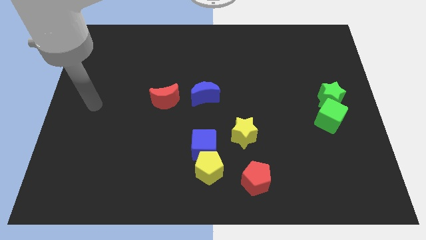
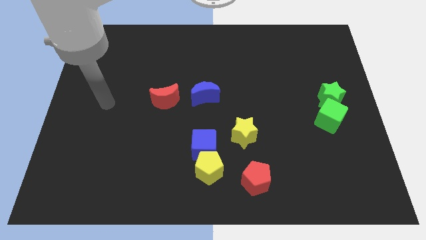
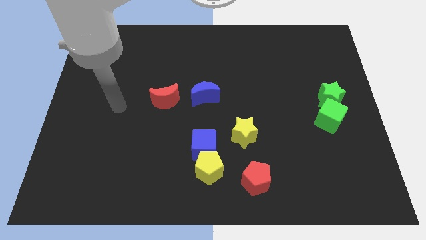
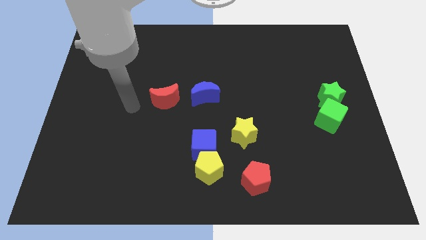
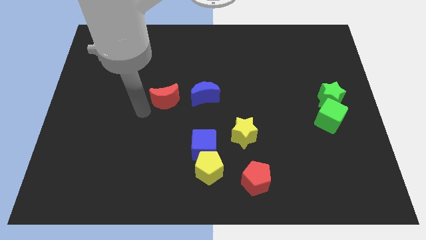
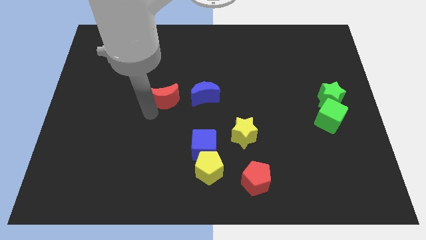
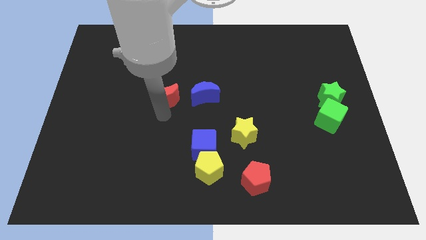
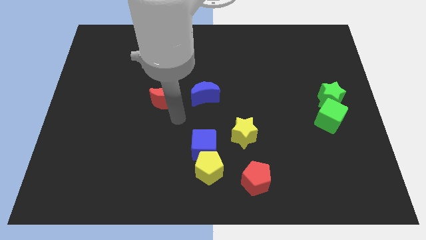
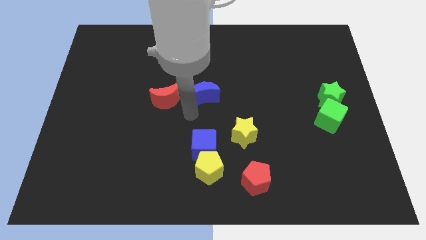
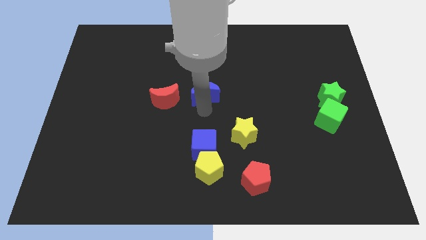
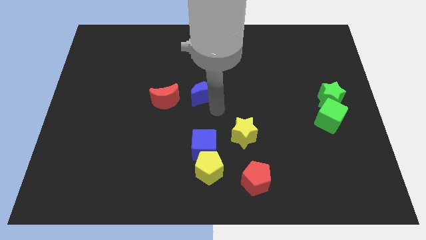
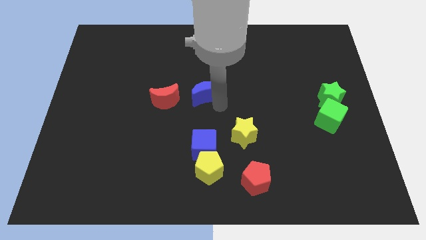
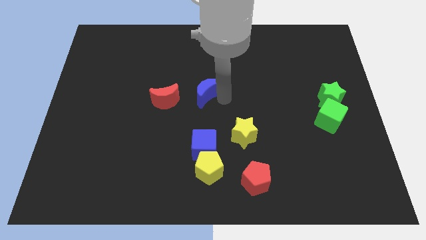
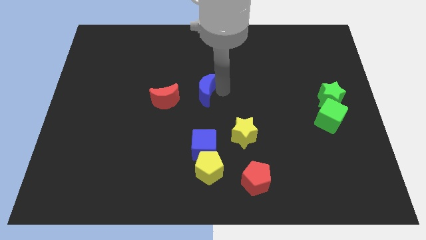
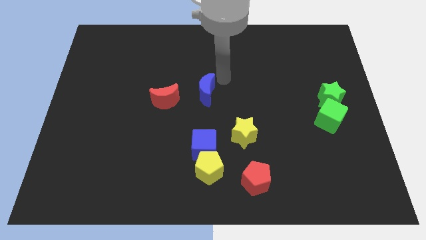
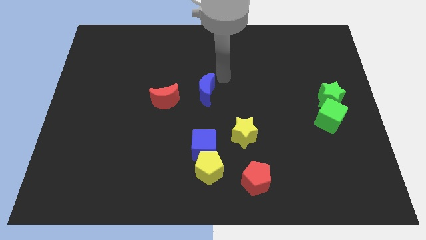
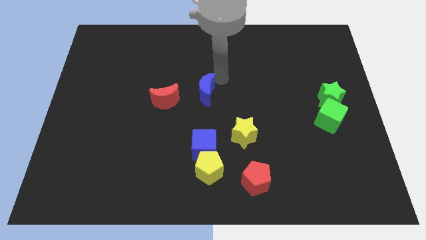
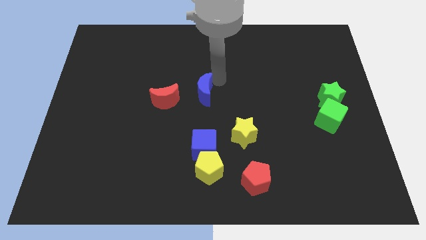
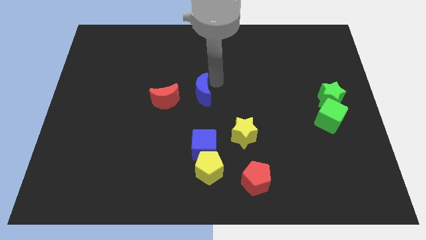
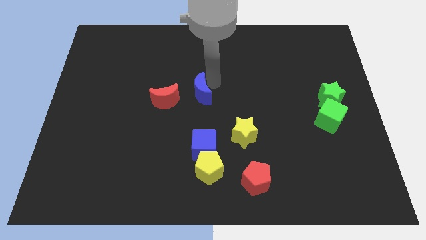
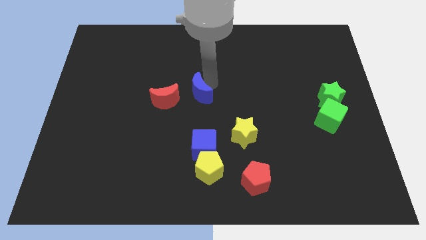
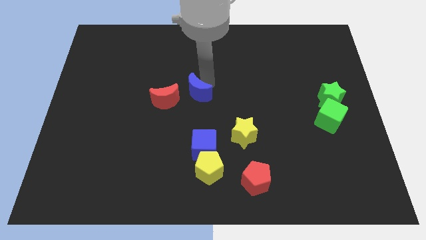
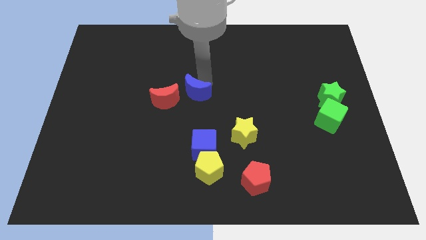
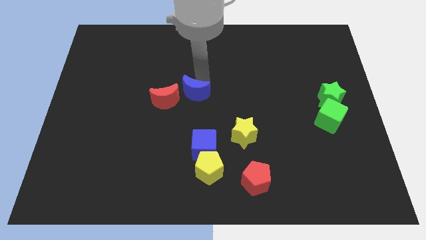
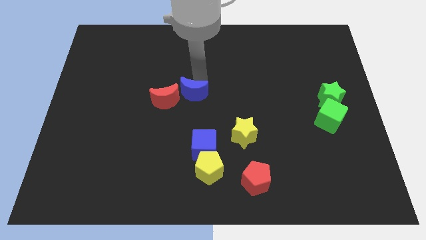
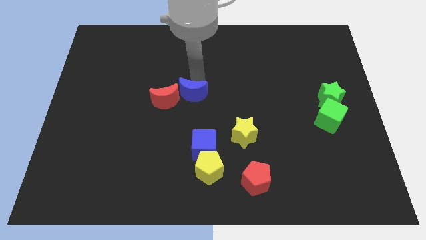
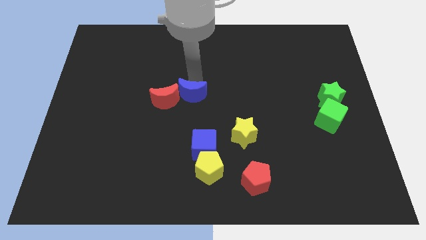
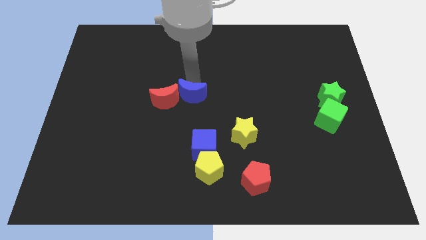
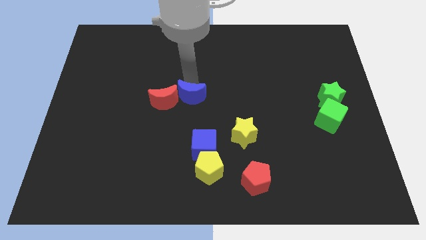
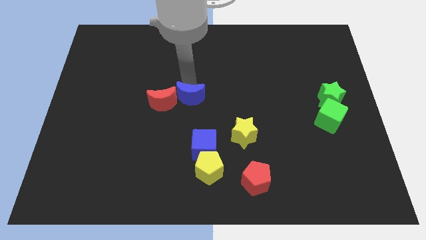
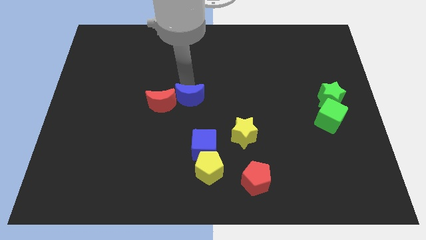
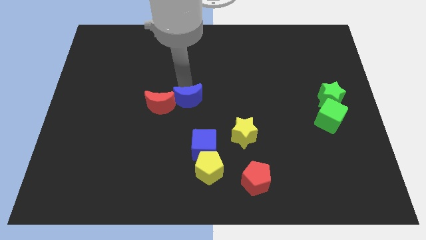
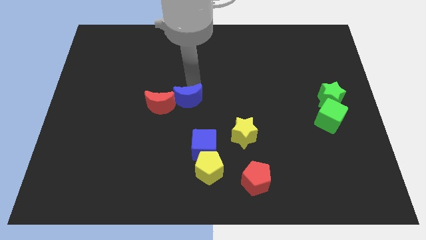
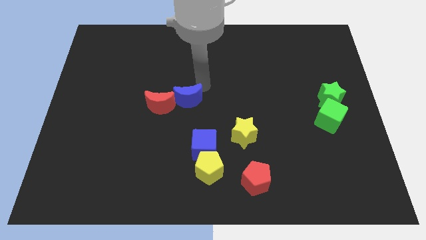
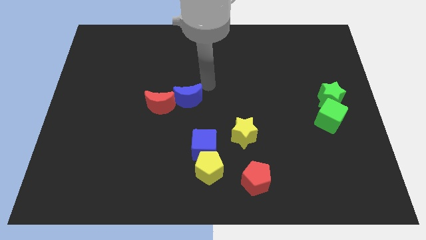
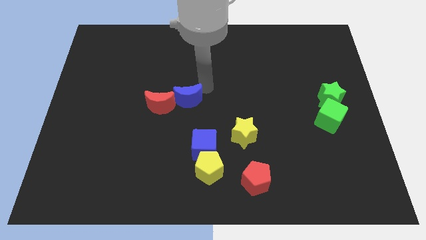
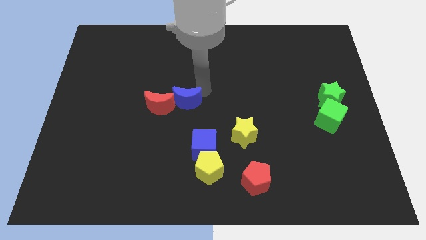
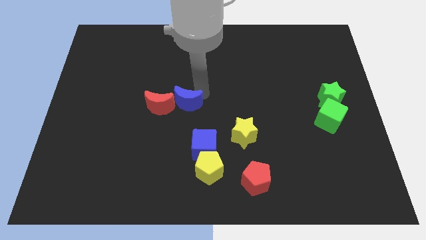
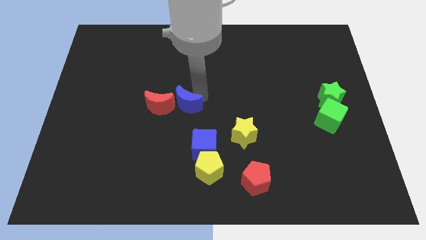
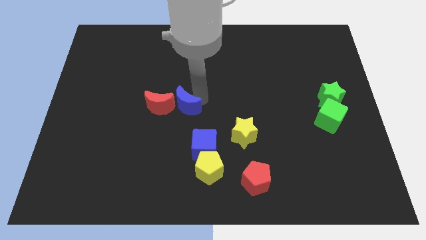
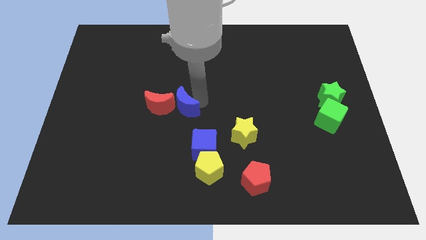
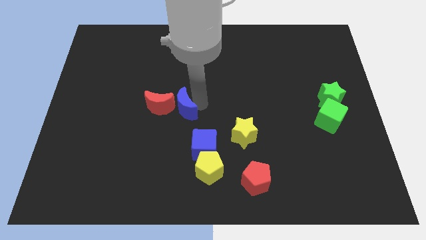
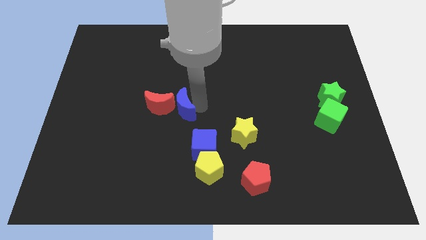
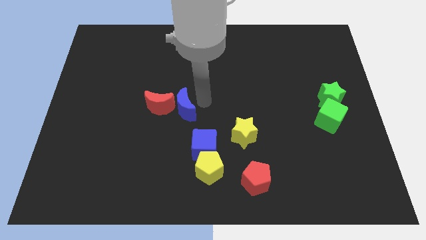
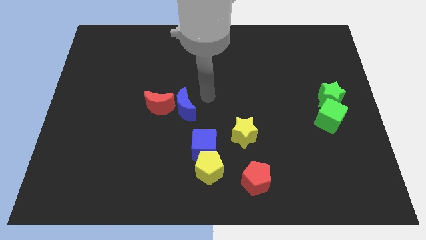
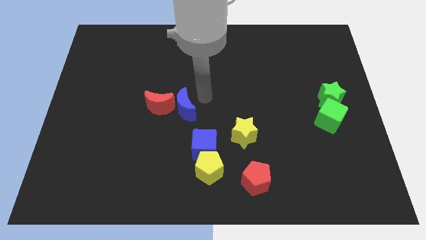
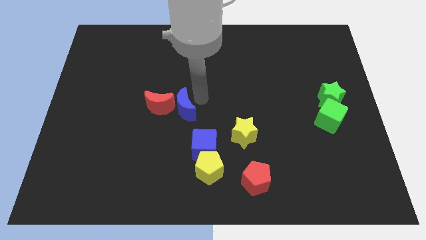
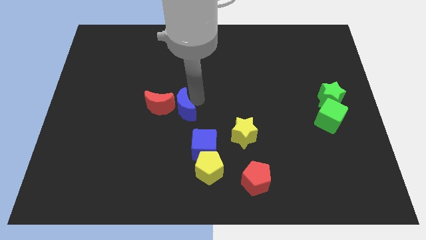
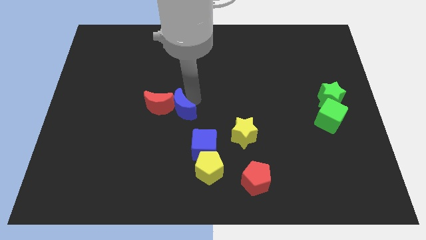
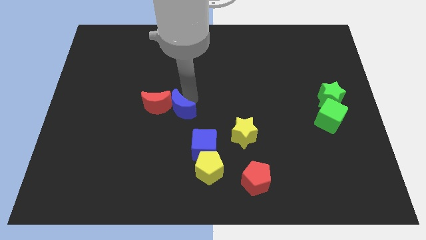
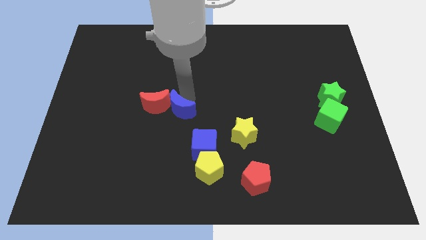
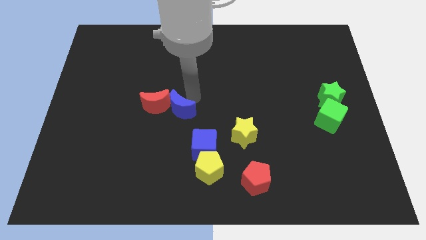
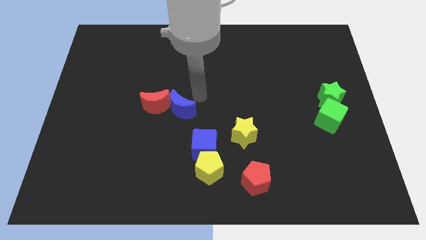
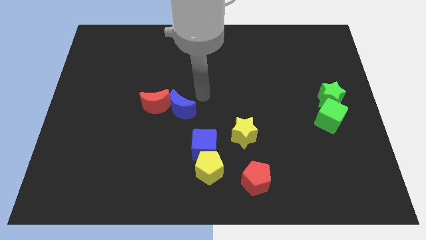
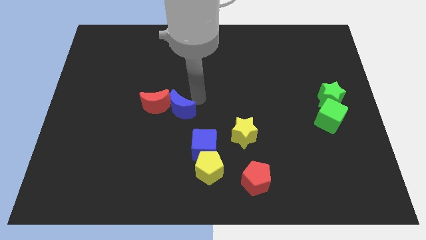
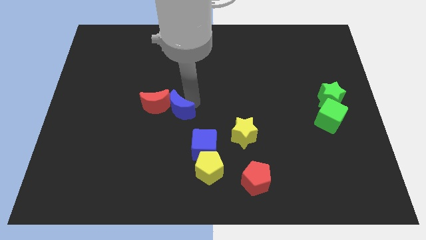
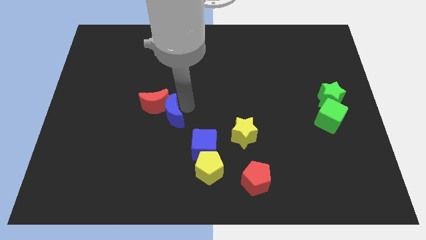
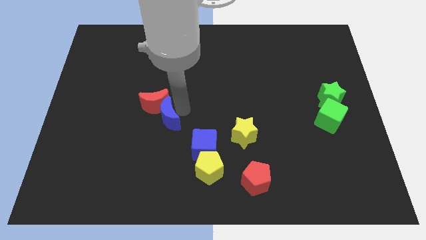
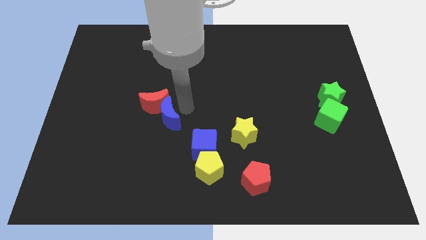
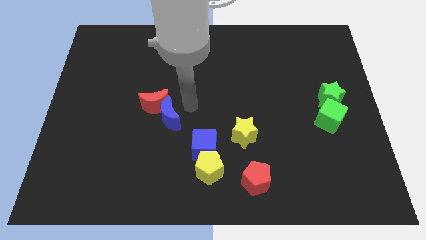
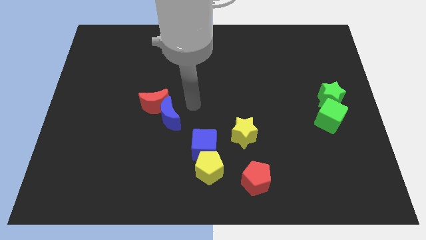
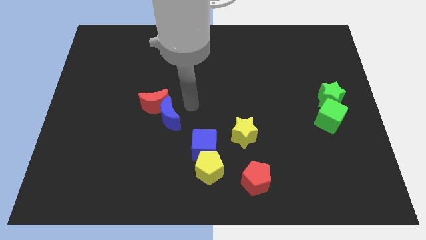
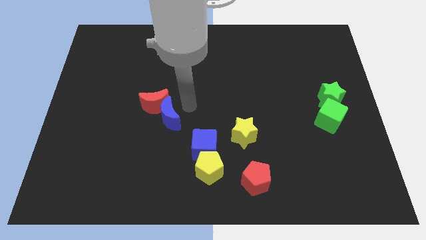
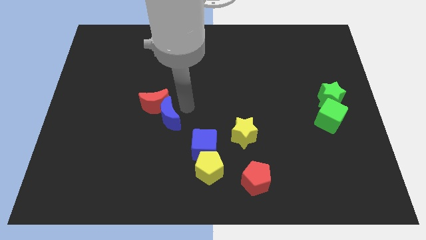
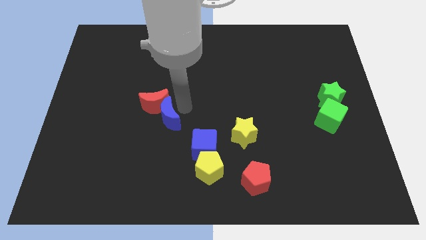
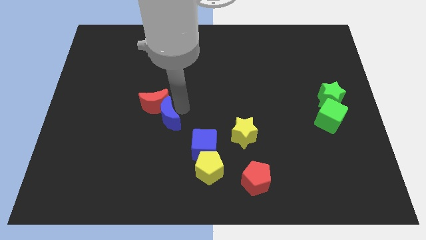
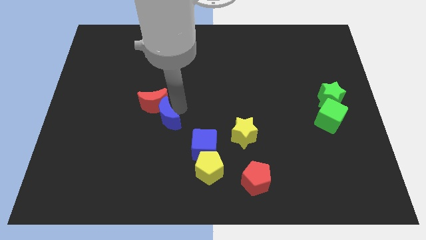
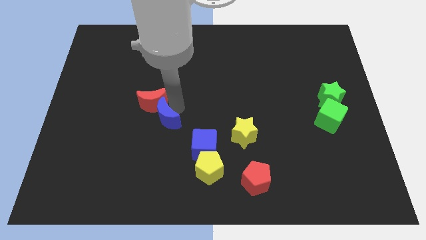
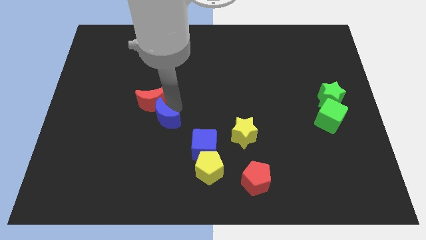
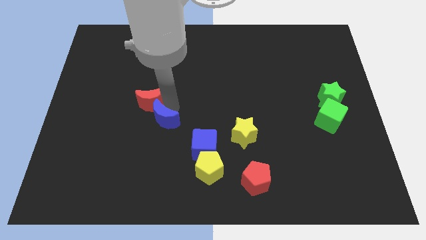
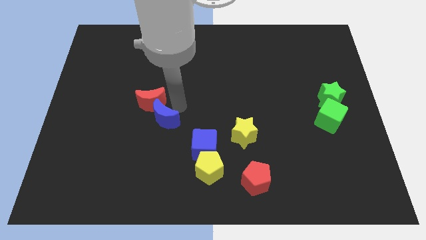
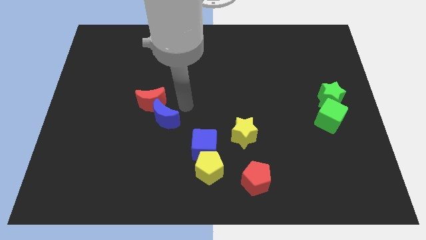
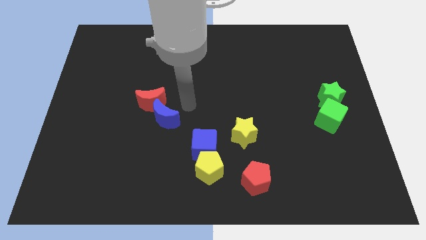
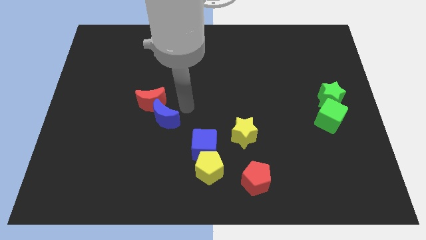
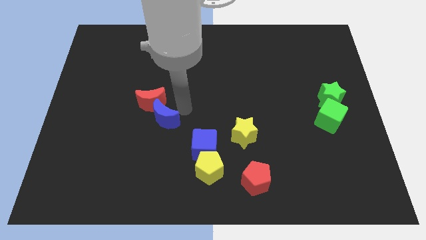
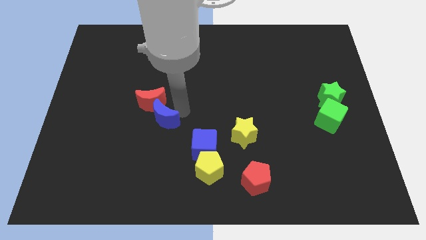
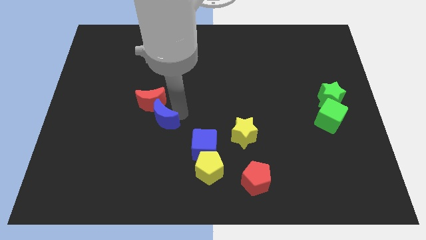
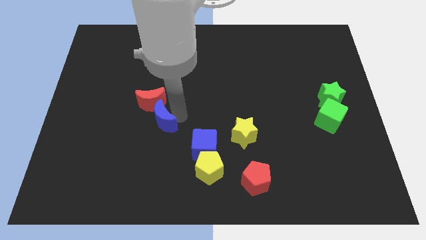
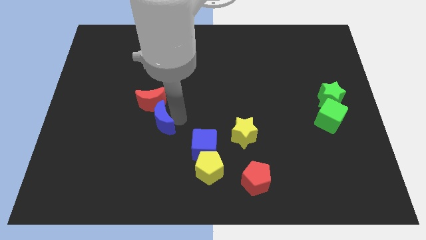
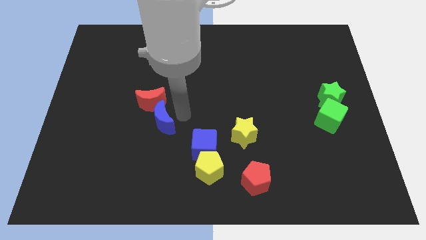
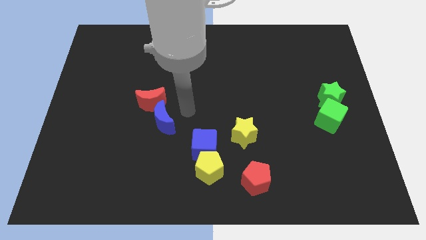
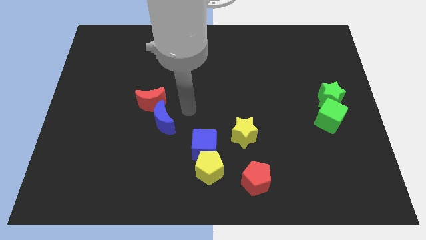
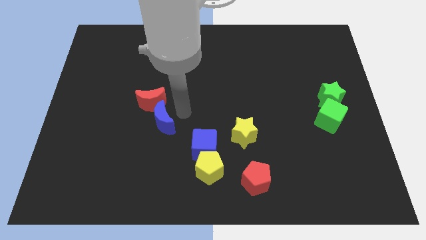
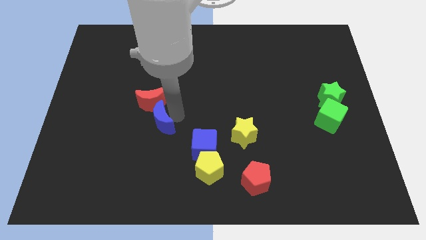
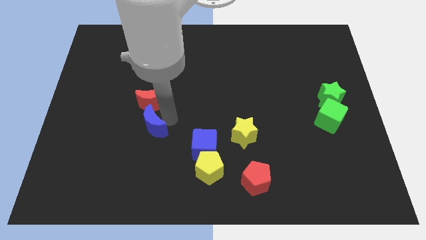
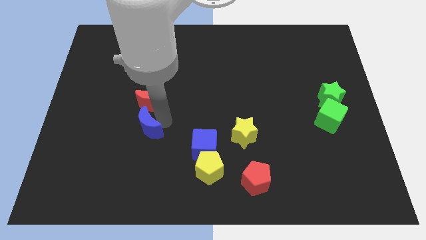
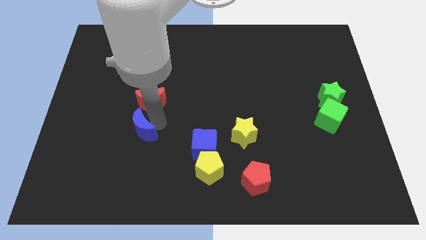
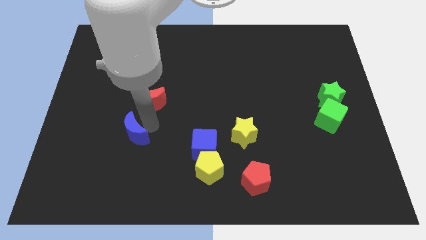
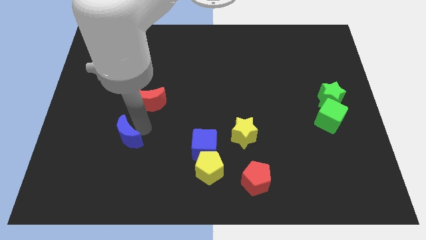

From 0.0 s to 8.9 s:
slide the blue moon downwards and to the left
